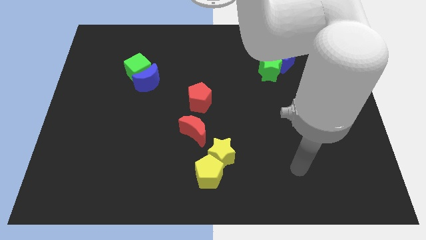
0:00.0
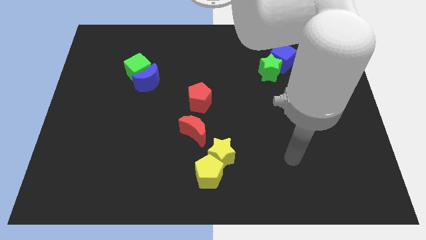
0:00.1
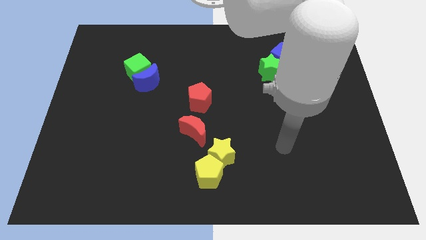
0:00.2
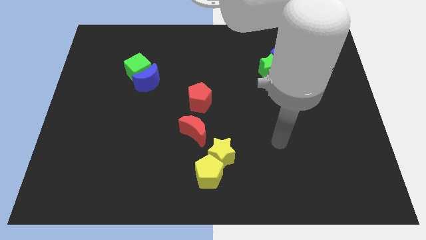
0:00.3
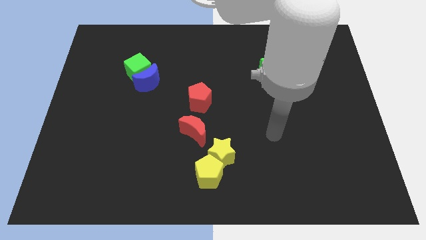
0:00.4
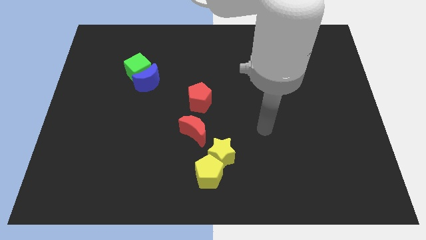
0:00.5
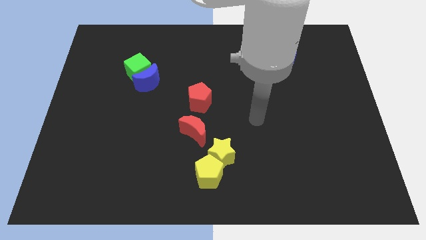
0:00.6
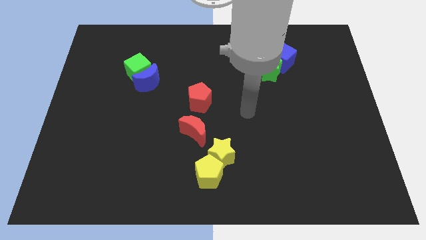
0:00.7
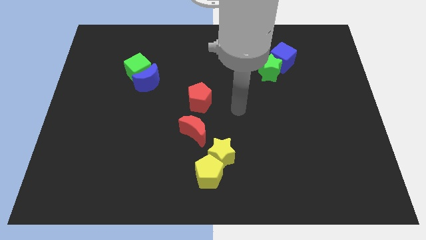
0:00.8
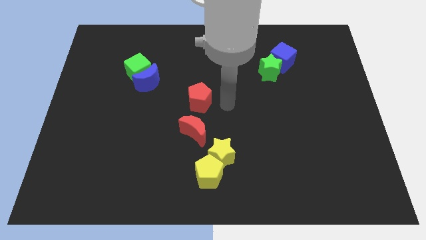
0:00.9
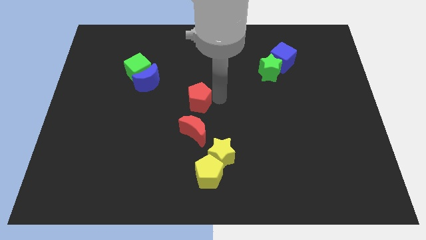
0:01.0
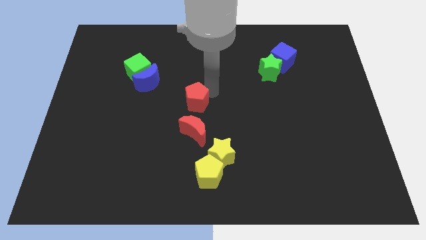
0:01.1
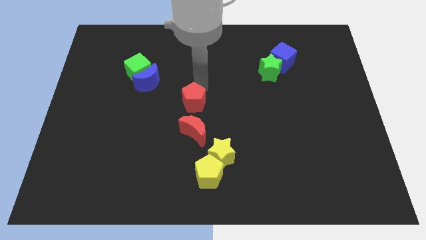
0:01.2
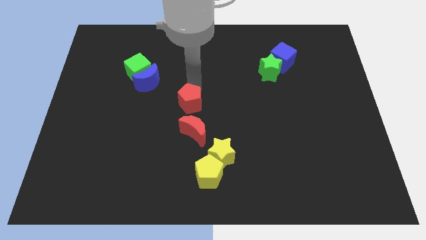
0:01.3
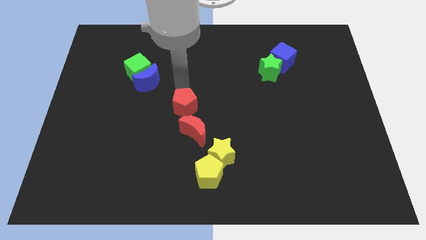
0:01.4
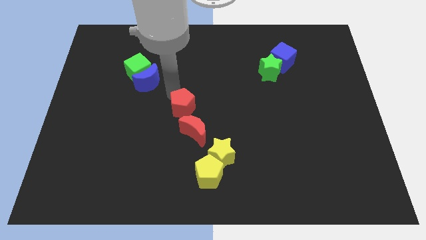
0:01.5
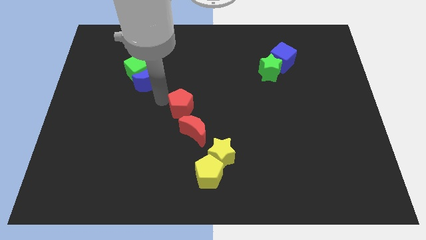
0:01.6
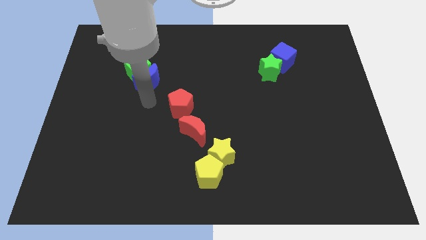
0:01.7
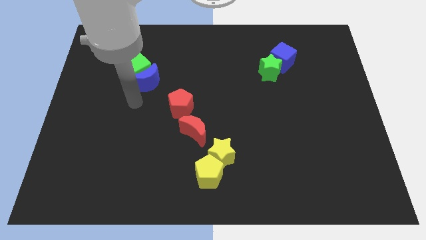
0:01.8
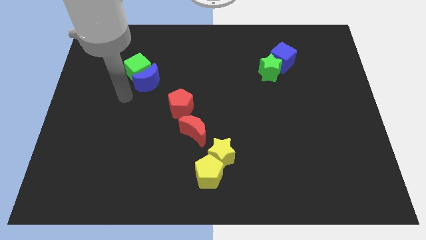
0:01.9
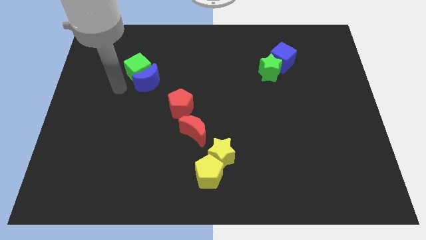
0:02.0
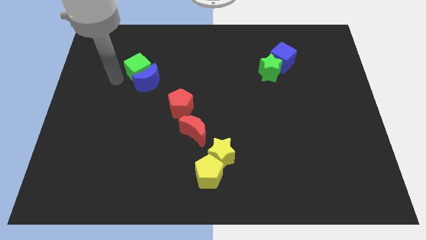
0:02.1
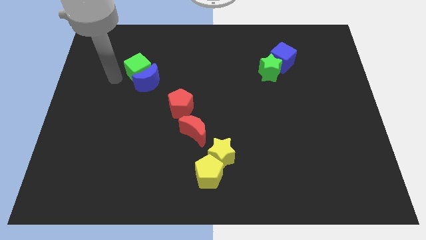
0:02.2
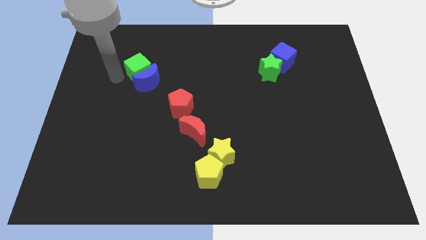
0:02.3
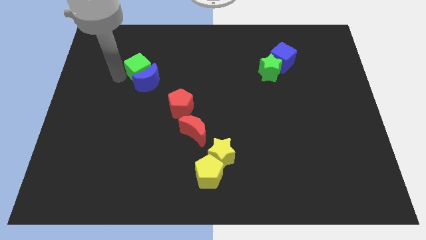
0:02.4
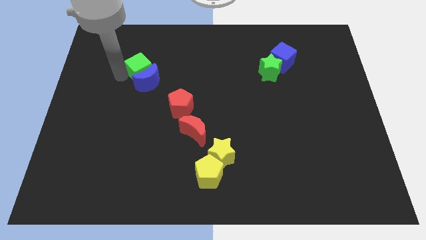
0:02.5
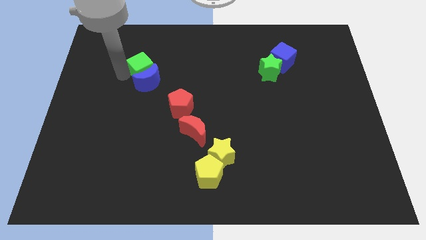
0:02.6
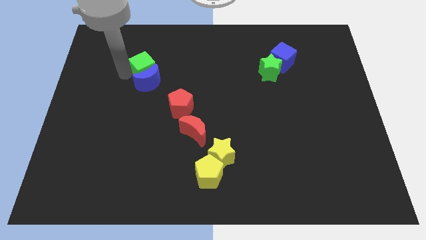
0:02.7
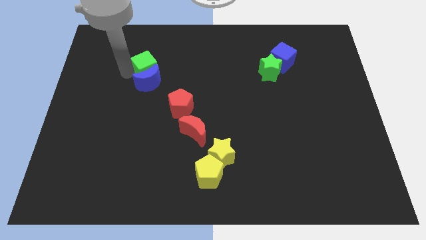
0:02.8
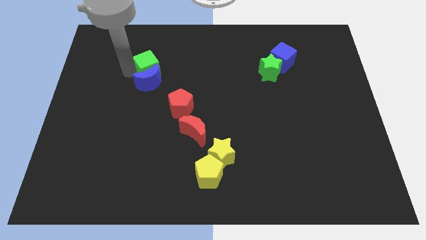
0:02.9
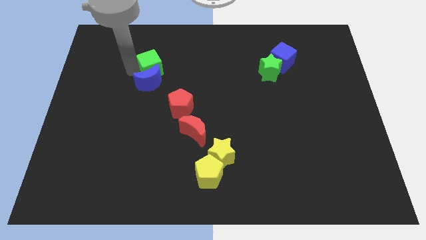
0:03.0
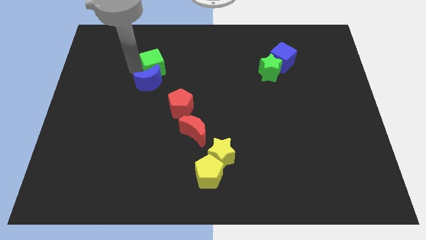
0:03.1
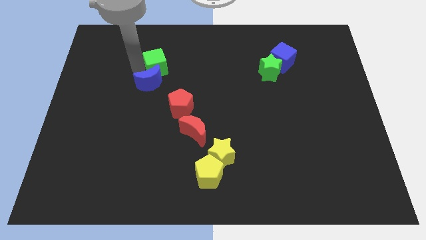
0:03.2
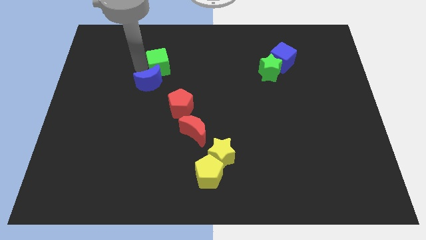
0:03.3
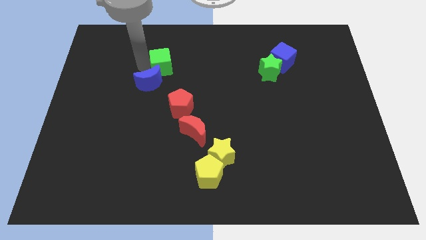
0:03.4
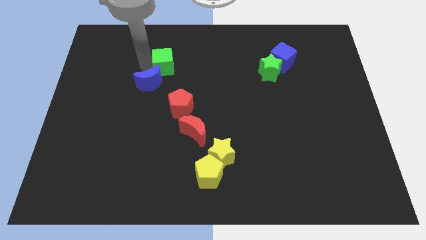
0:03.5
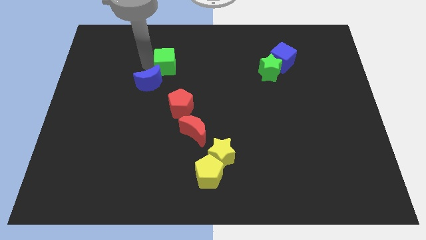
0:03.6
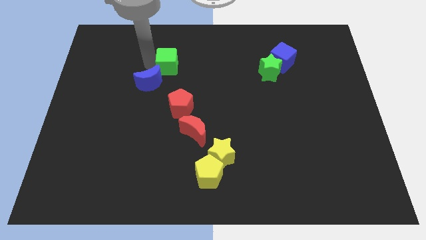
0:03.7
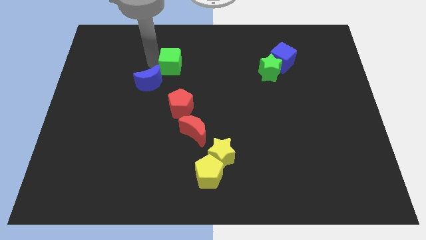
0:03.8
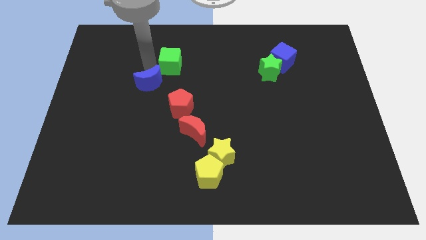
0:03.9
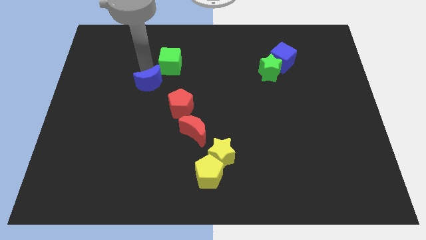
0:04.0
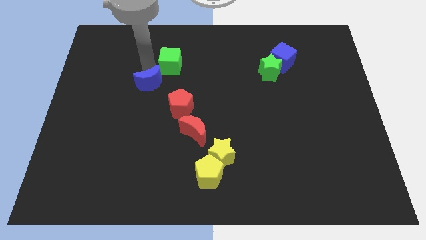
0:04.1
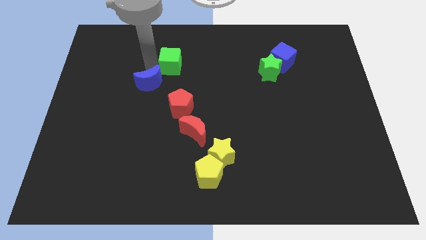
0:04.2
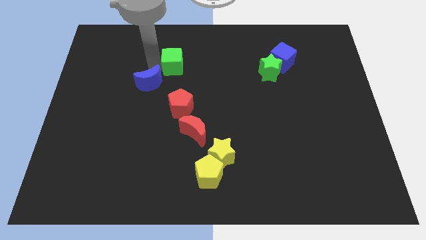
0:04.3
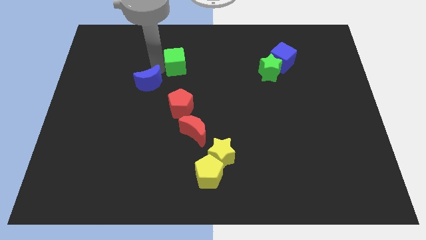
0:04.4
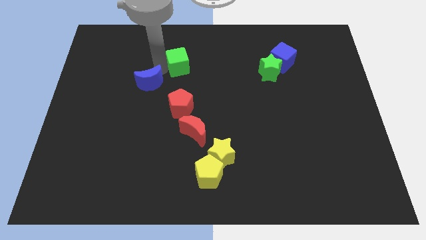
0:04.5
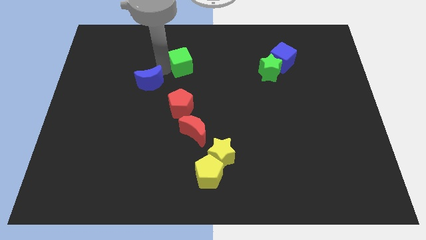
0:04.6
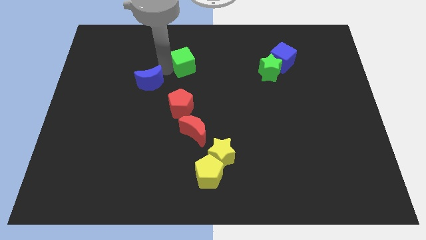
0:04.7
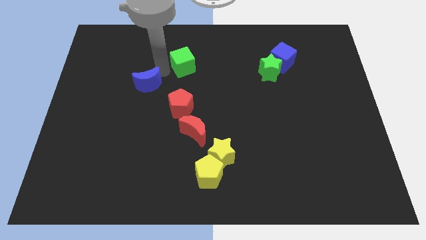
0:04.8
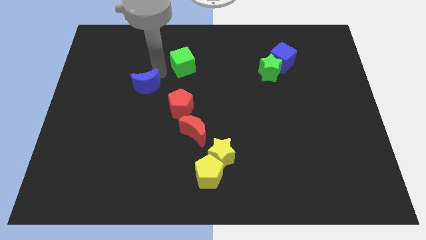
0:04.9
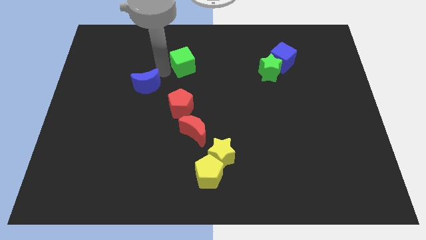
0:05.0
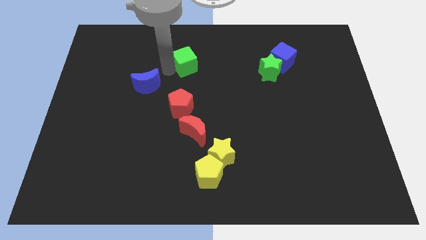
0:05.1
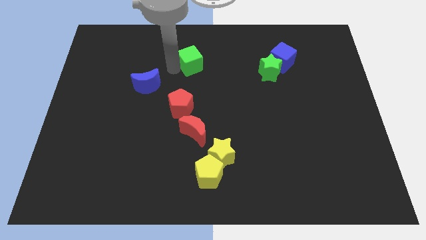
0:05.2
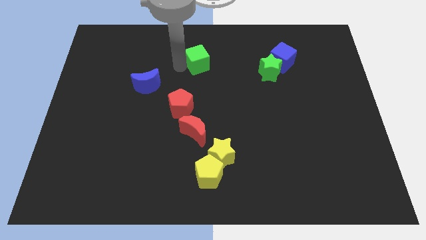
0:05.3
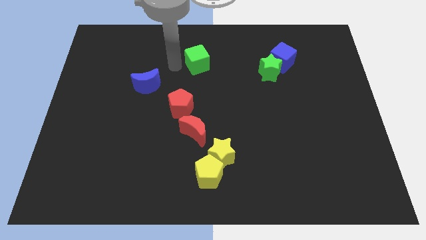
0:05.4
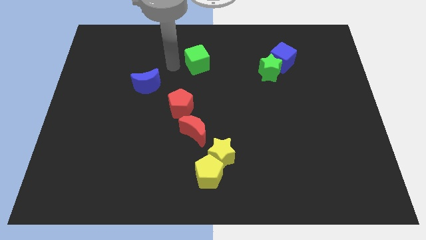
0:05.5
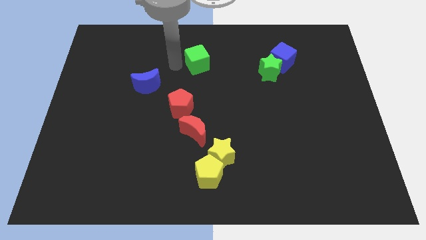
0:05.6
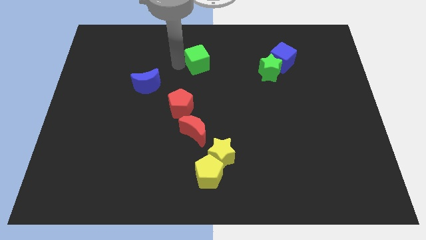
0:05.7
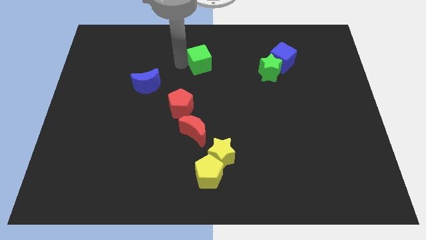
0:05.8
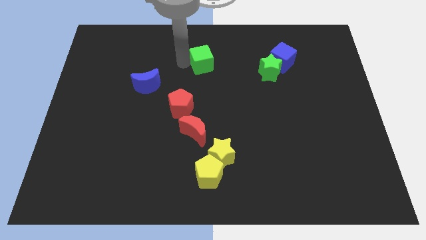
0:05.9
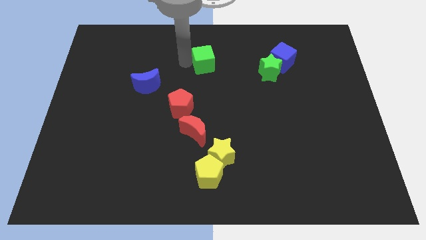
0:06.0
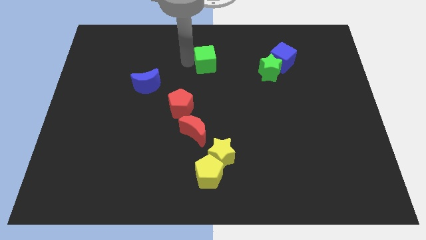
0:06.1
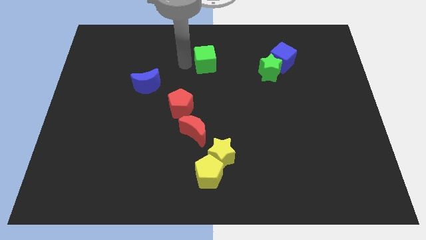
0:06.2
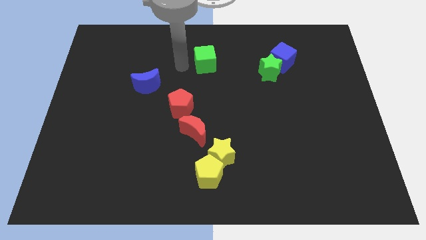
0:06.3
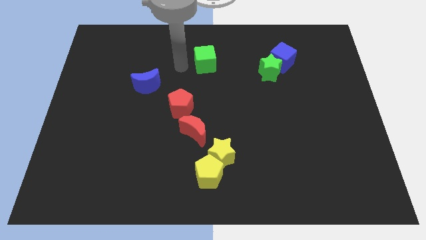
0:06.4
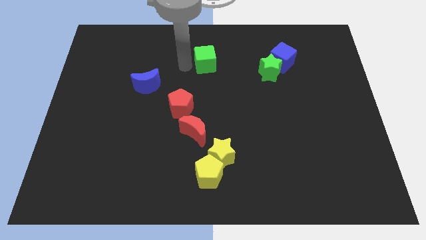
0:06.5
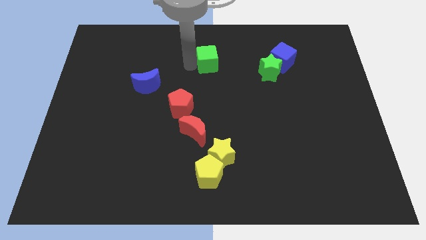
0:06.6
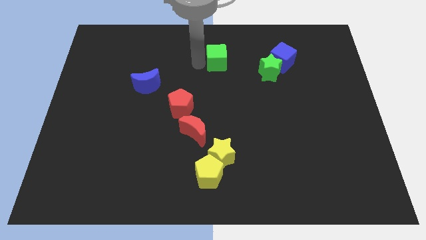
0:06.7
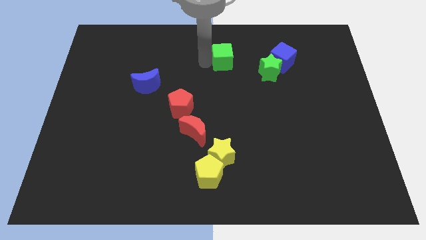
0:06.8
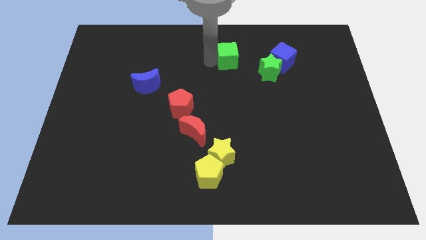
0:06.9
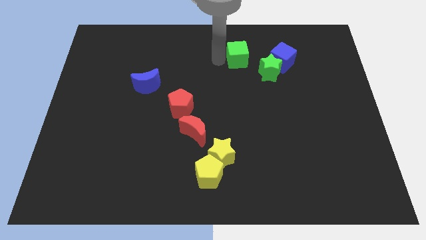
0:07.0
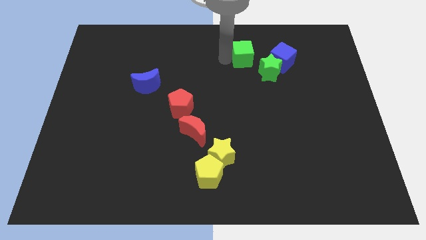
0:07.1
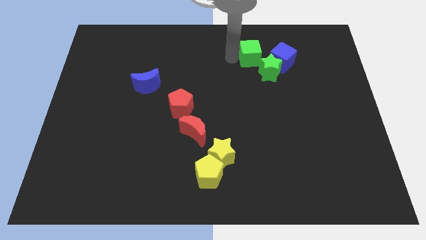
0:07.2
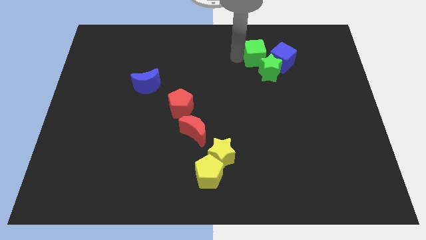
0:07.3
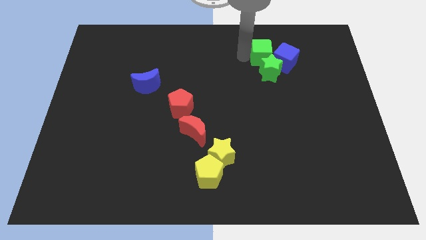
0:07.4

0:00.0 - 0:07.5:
slide the green cube towards the blue cube

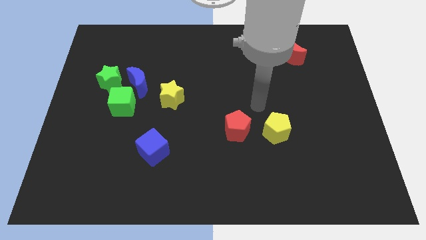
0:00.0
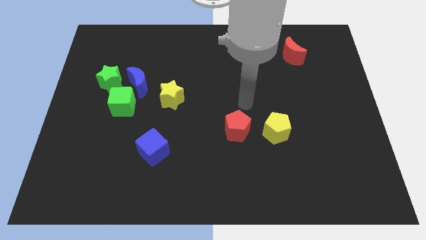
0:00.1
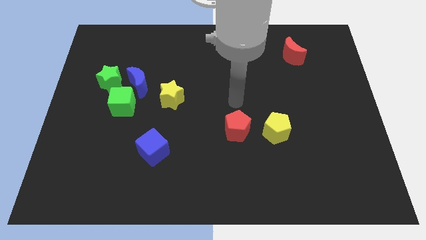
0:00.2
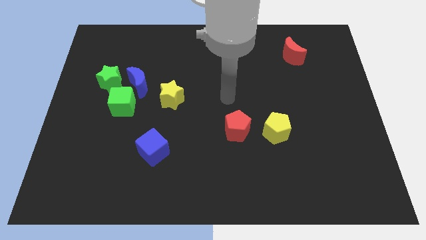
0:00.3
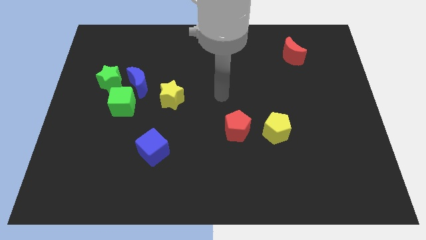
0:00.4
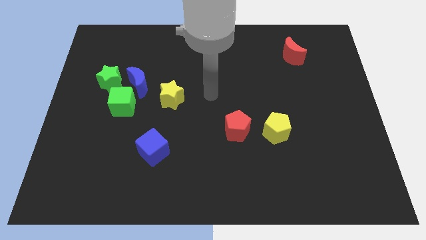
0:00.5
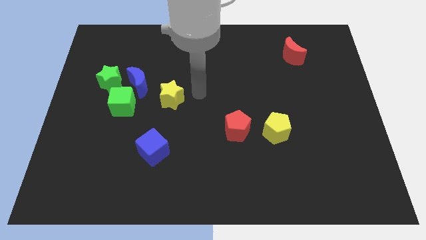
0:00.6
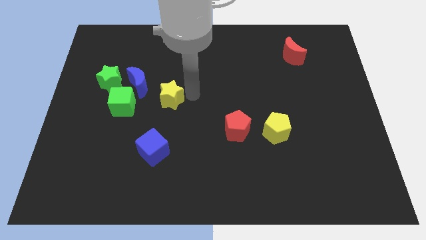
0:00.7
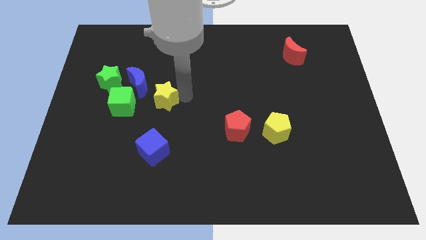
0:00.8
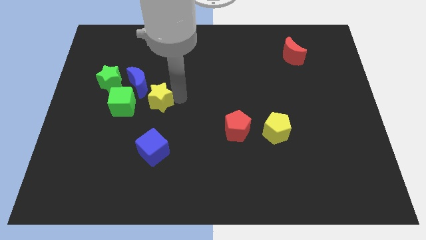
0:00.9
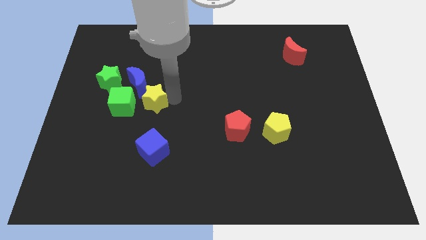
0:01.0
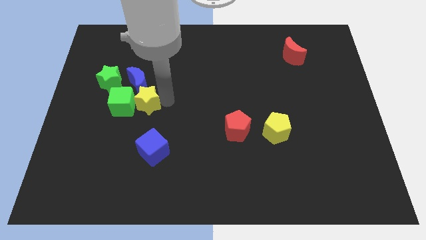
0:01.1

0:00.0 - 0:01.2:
move the yellow star to the green cube
